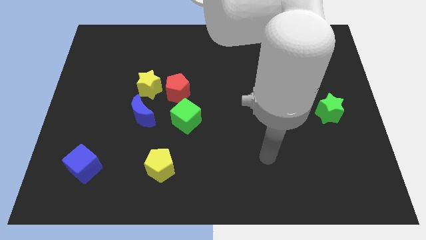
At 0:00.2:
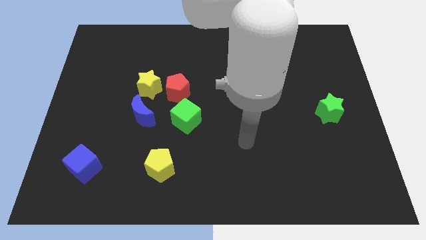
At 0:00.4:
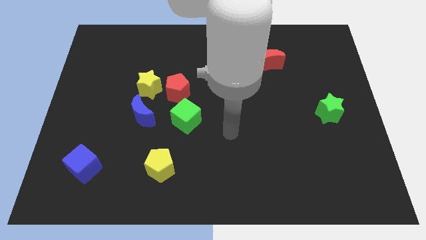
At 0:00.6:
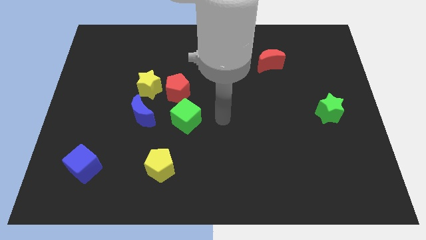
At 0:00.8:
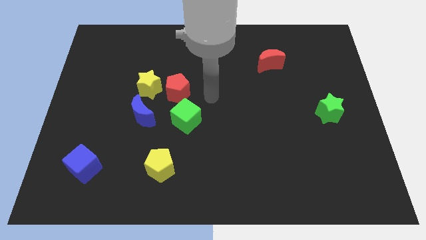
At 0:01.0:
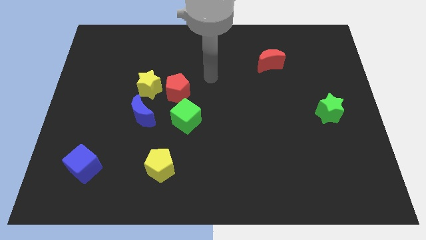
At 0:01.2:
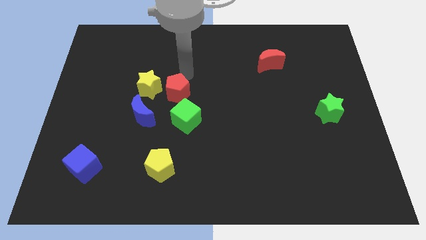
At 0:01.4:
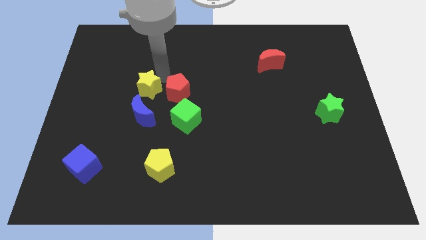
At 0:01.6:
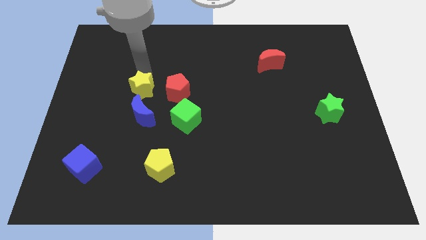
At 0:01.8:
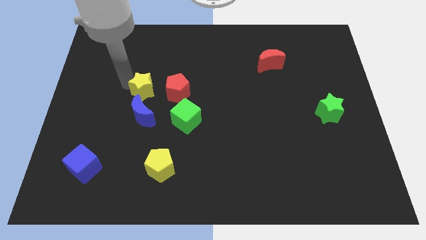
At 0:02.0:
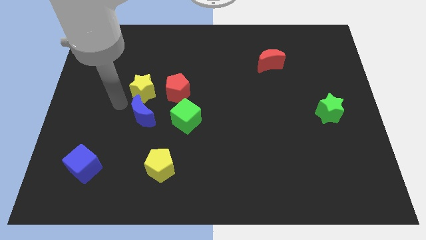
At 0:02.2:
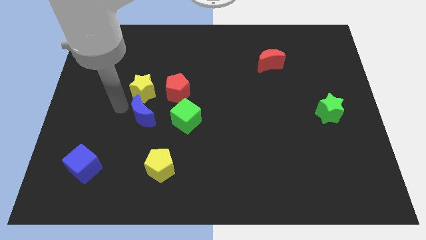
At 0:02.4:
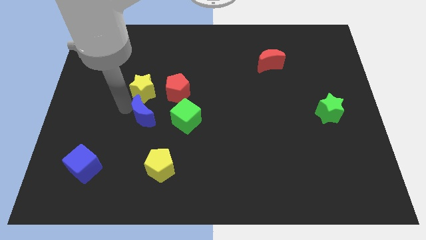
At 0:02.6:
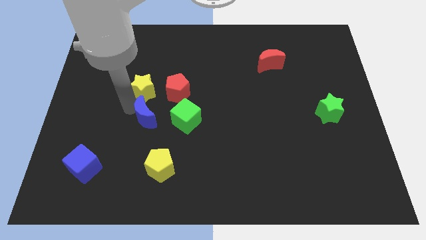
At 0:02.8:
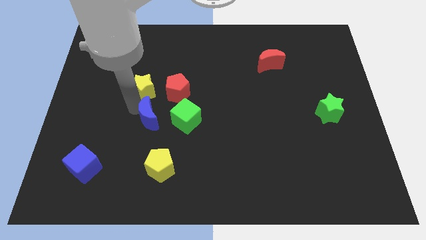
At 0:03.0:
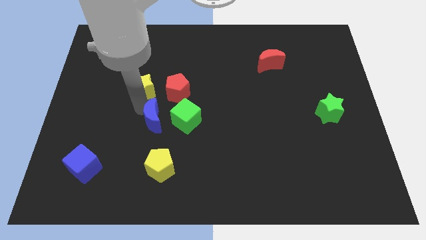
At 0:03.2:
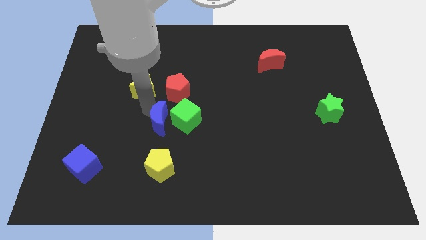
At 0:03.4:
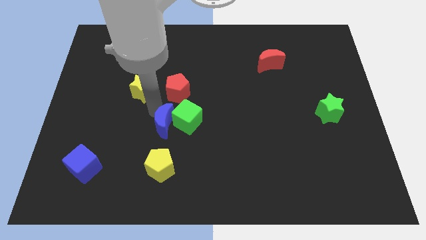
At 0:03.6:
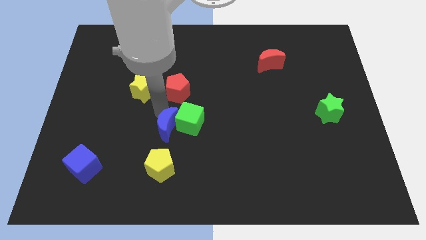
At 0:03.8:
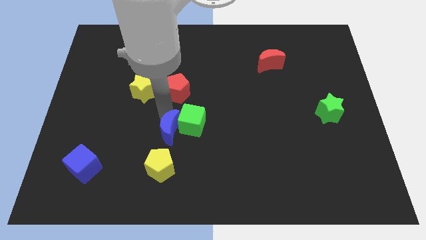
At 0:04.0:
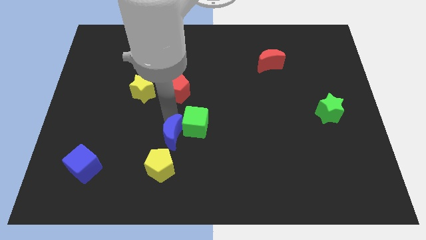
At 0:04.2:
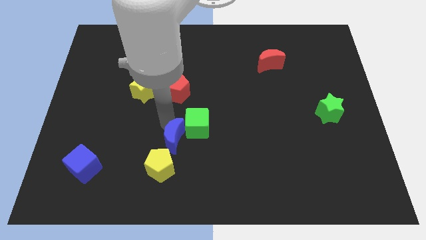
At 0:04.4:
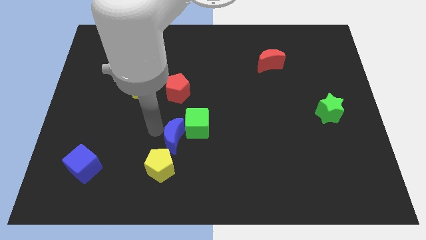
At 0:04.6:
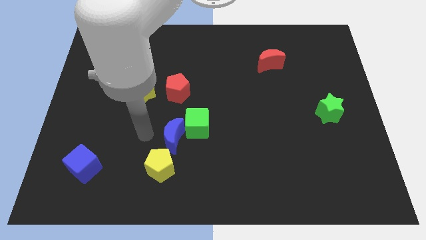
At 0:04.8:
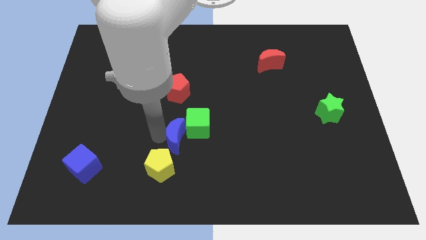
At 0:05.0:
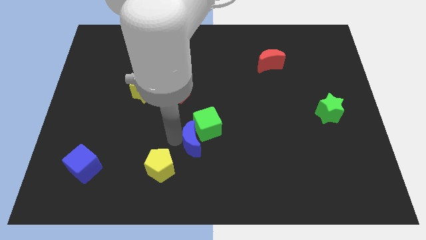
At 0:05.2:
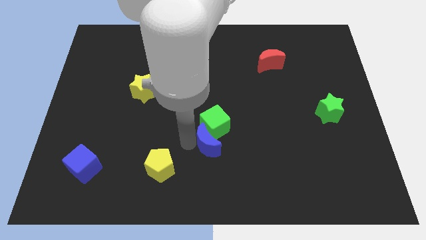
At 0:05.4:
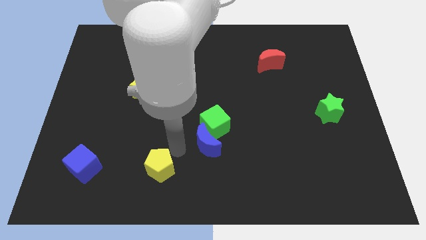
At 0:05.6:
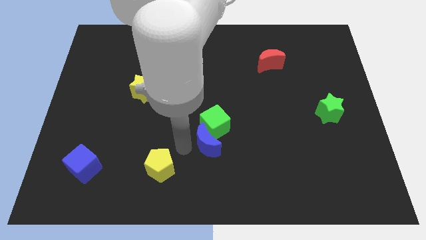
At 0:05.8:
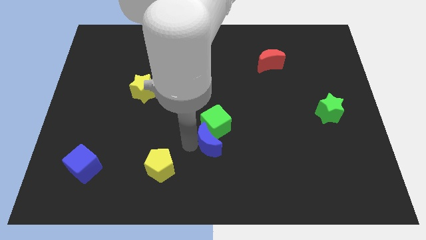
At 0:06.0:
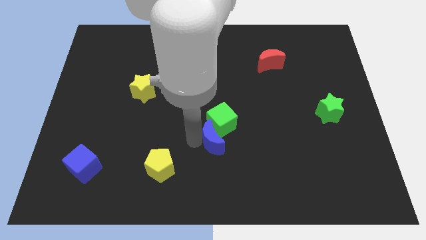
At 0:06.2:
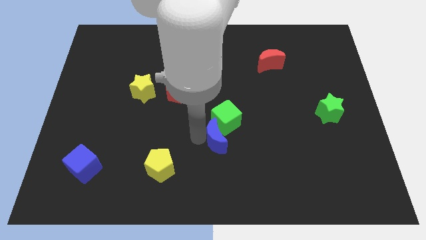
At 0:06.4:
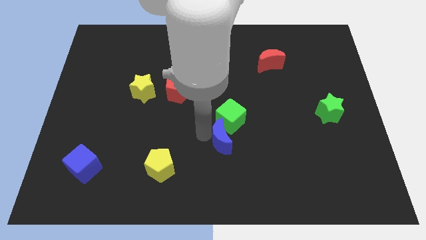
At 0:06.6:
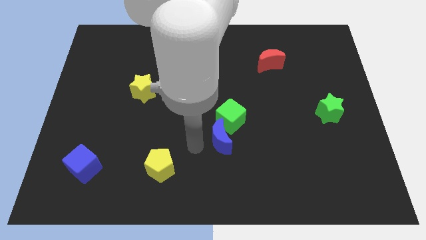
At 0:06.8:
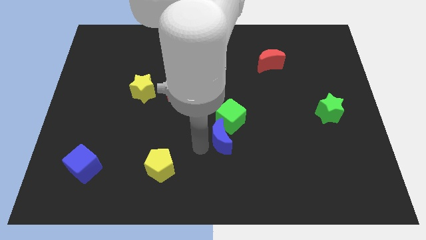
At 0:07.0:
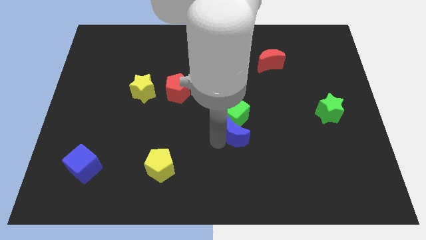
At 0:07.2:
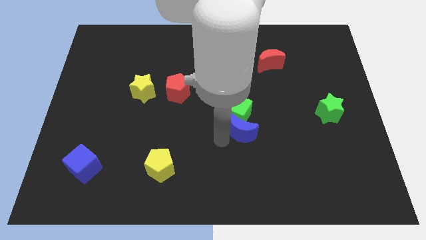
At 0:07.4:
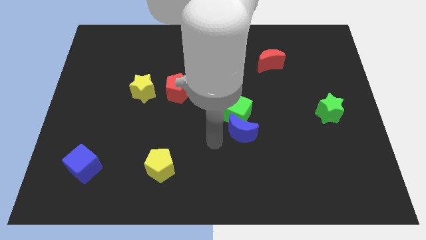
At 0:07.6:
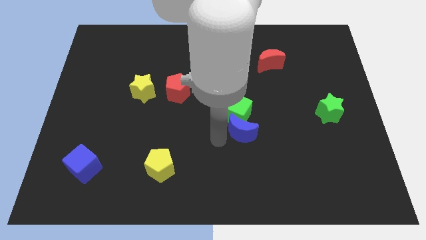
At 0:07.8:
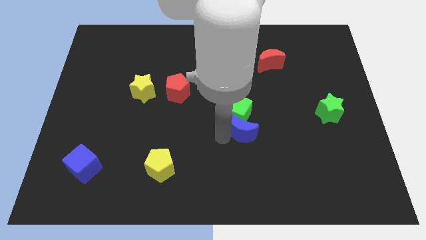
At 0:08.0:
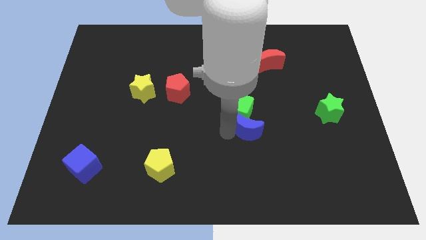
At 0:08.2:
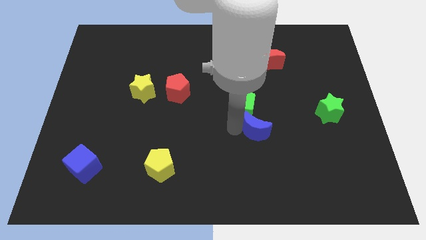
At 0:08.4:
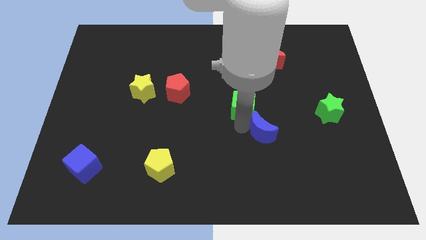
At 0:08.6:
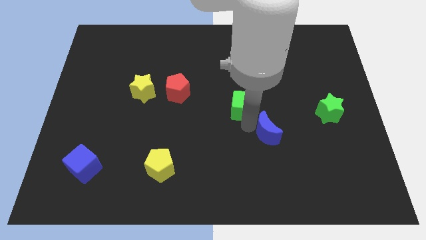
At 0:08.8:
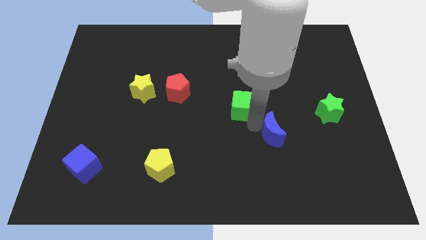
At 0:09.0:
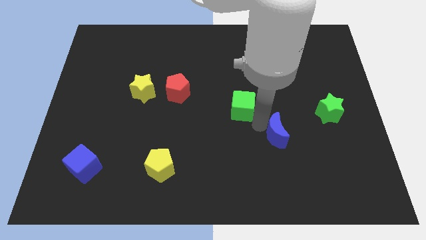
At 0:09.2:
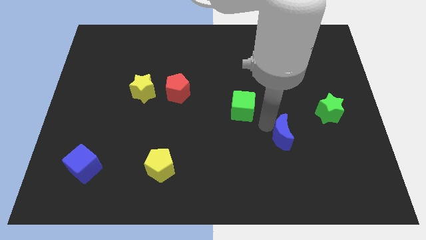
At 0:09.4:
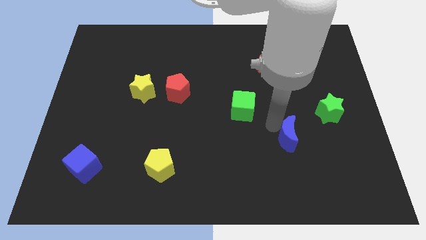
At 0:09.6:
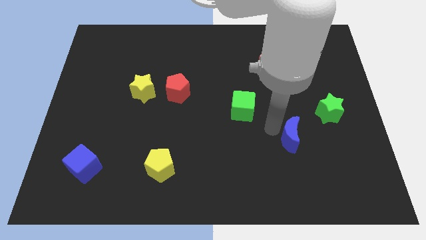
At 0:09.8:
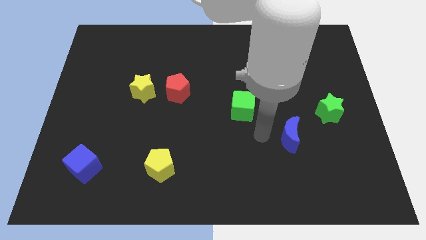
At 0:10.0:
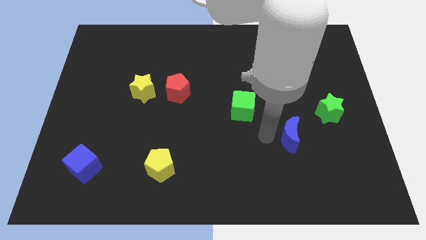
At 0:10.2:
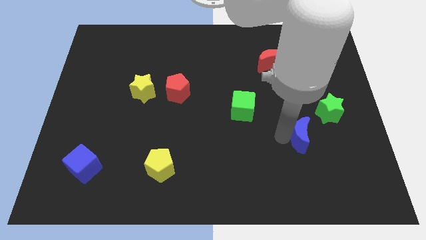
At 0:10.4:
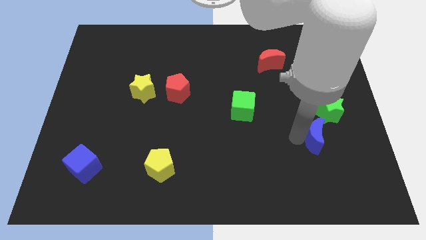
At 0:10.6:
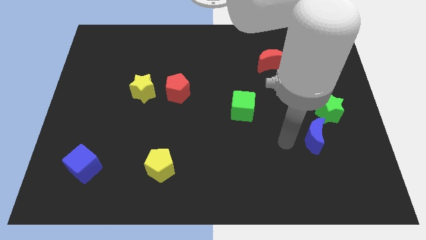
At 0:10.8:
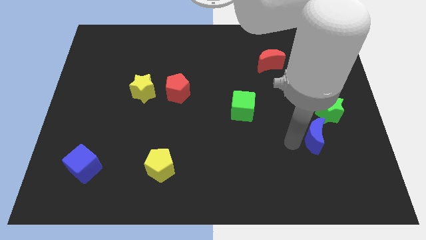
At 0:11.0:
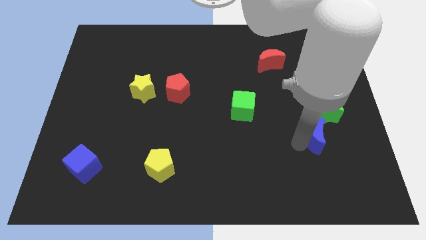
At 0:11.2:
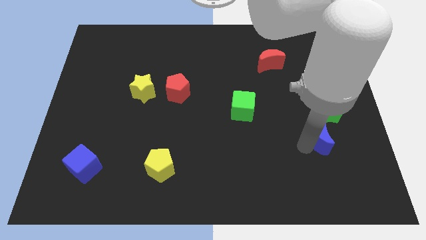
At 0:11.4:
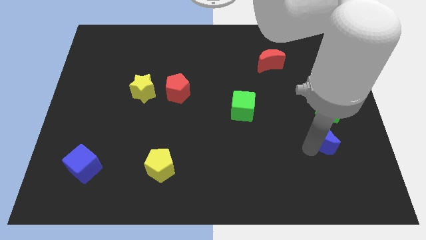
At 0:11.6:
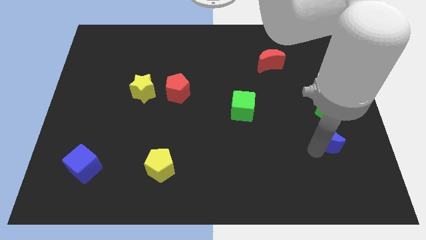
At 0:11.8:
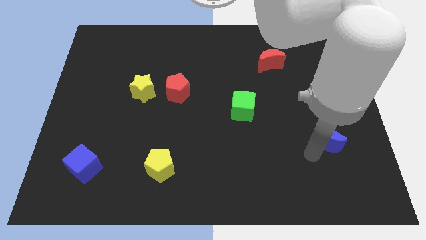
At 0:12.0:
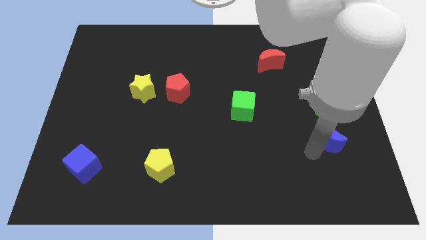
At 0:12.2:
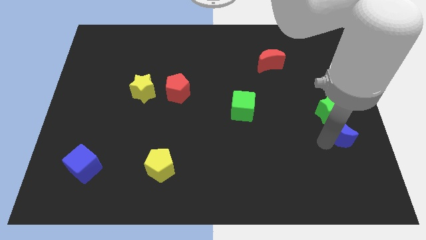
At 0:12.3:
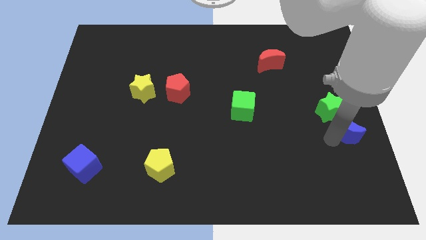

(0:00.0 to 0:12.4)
put the blue moon to the right side
